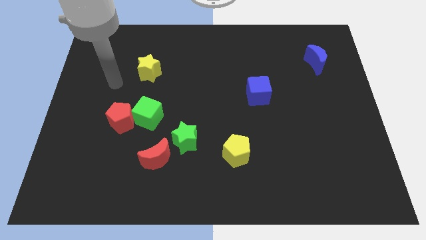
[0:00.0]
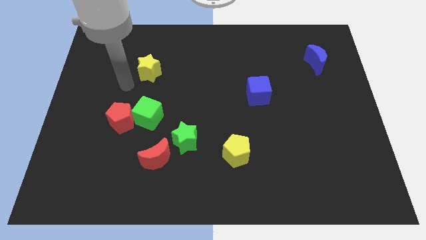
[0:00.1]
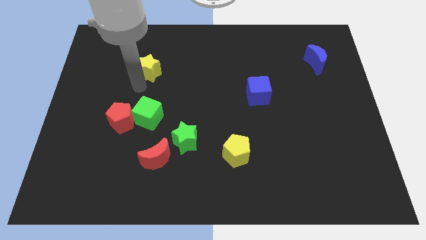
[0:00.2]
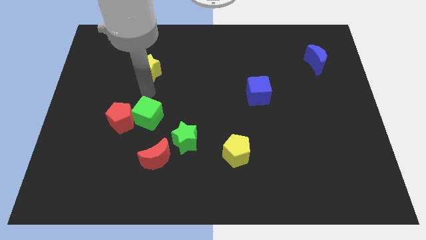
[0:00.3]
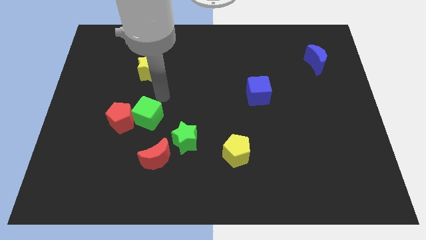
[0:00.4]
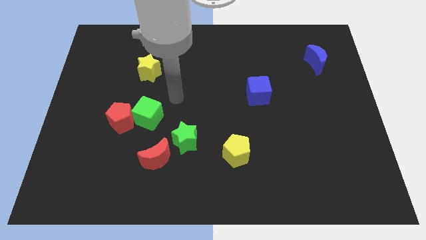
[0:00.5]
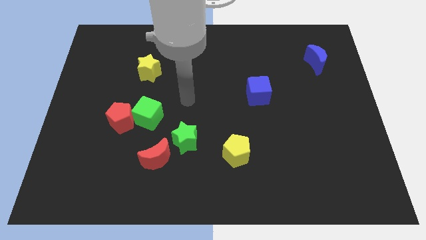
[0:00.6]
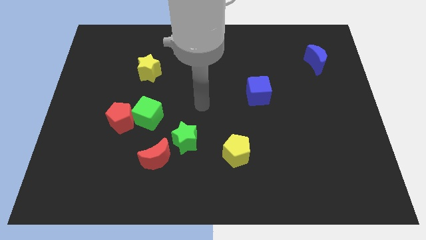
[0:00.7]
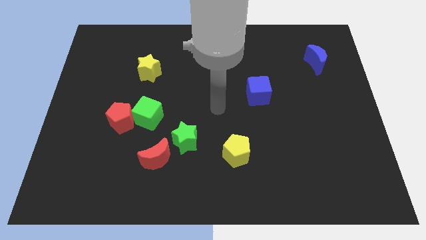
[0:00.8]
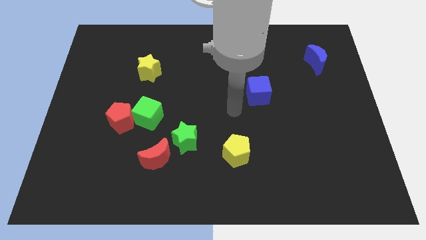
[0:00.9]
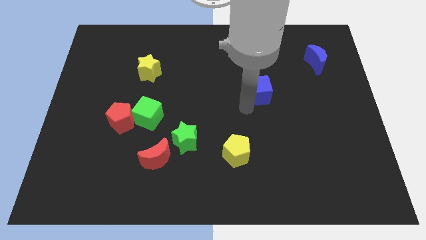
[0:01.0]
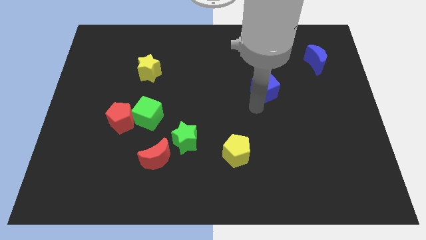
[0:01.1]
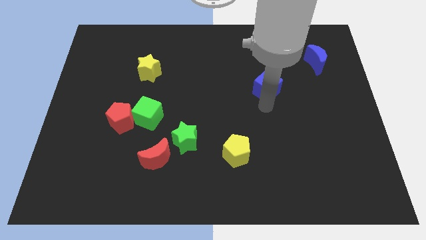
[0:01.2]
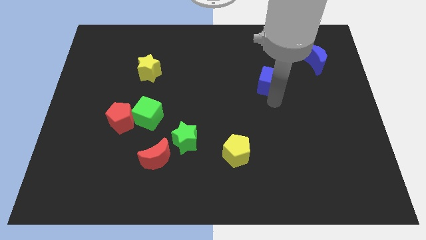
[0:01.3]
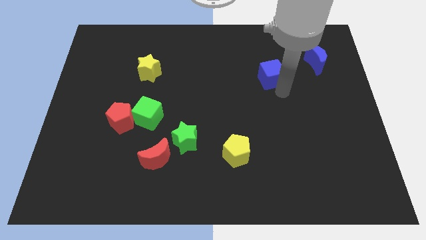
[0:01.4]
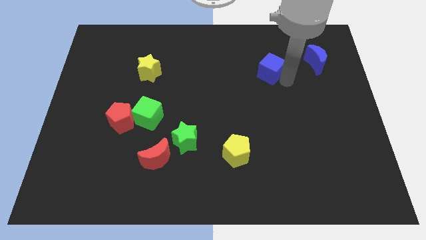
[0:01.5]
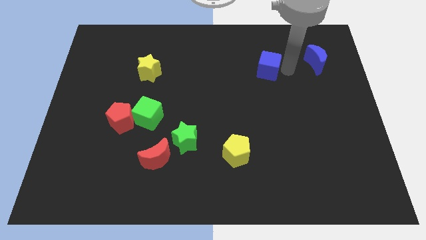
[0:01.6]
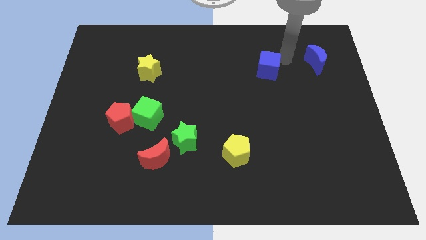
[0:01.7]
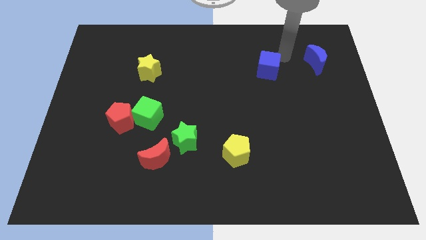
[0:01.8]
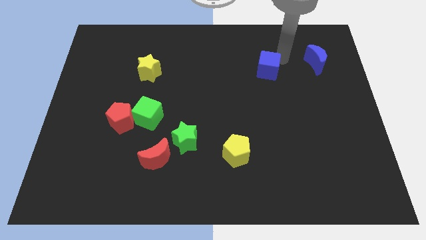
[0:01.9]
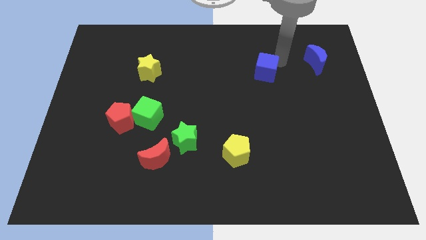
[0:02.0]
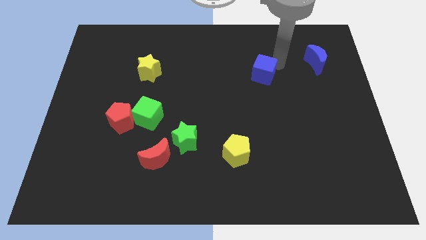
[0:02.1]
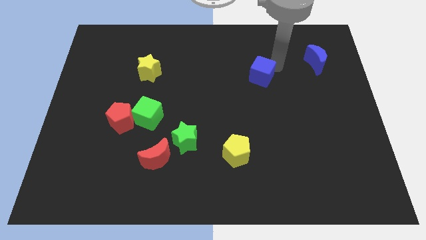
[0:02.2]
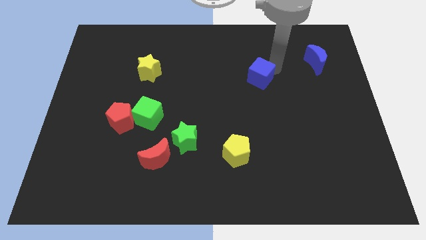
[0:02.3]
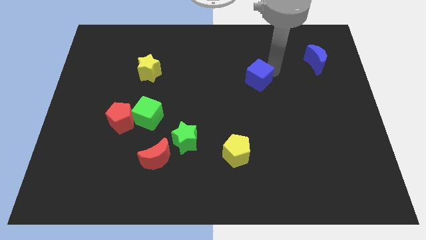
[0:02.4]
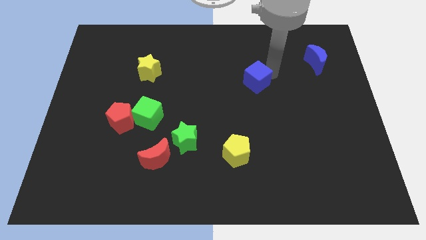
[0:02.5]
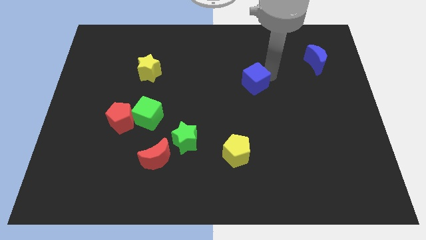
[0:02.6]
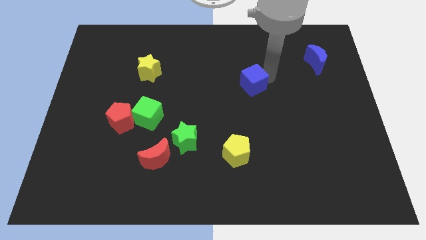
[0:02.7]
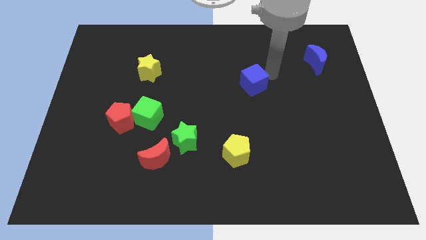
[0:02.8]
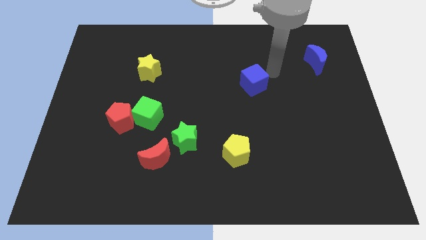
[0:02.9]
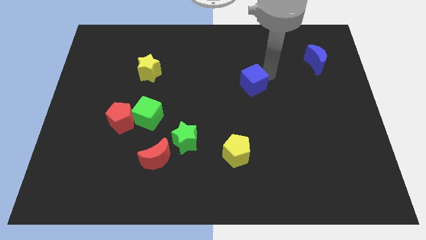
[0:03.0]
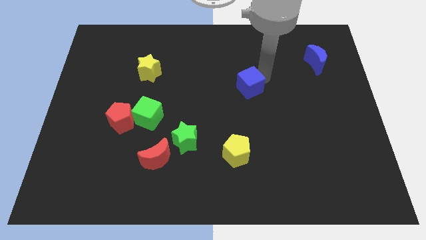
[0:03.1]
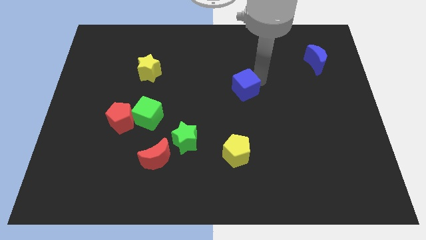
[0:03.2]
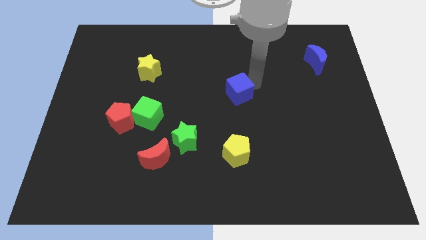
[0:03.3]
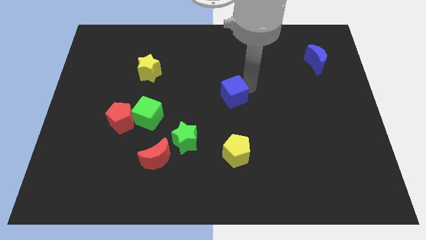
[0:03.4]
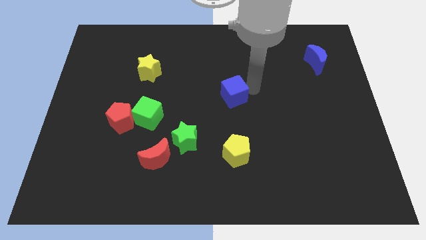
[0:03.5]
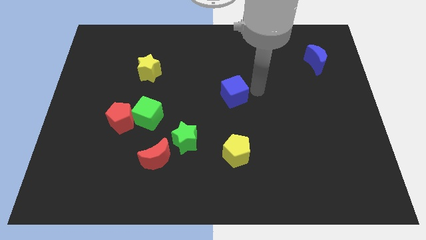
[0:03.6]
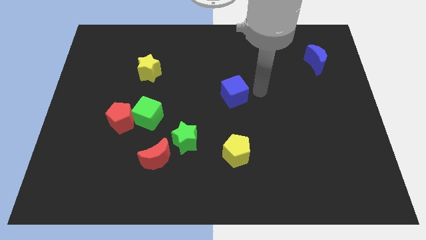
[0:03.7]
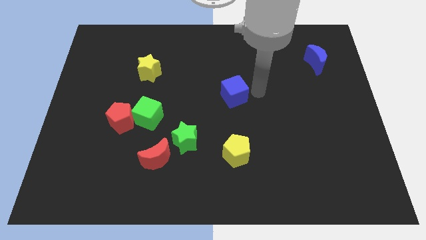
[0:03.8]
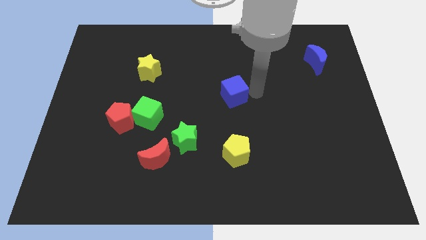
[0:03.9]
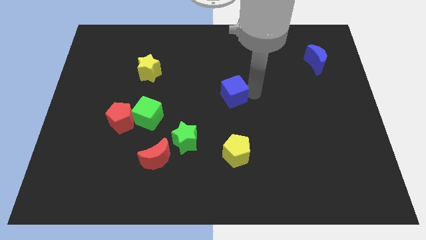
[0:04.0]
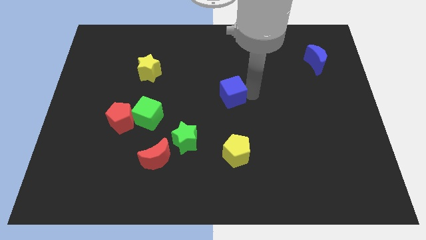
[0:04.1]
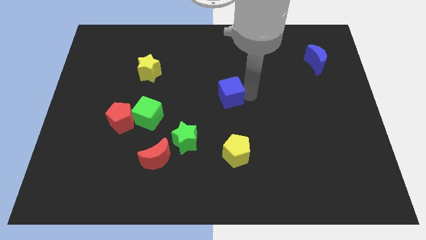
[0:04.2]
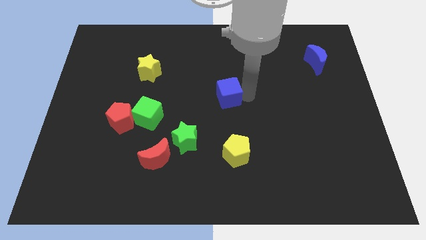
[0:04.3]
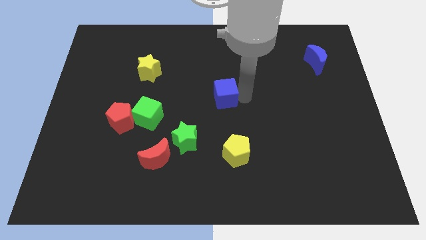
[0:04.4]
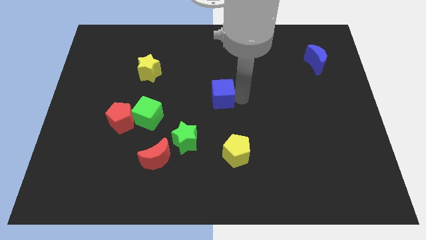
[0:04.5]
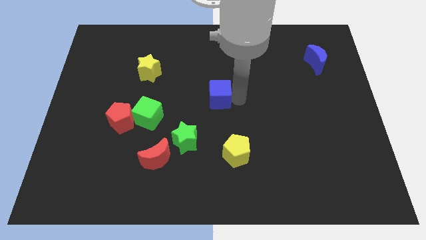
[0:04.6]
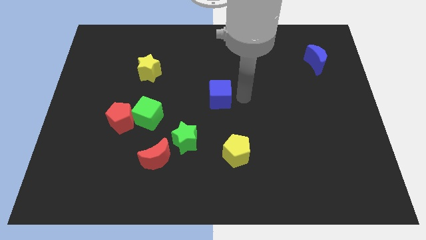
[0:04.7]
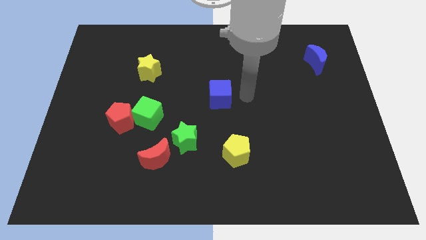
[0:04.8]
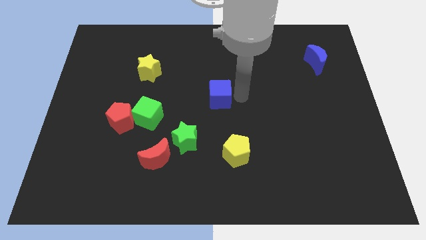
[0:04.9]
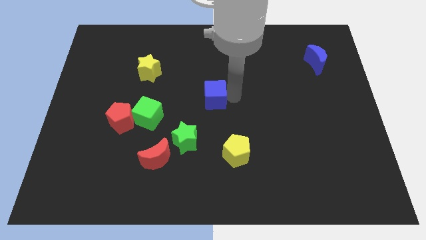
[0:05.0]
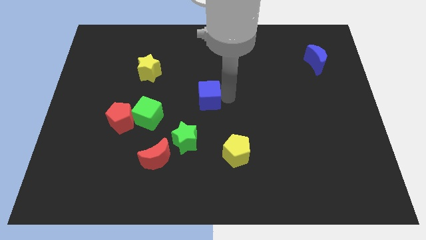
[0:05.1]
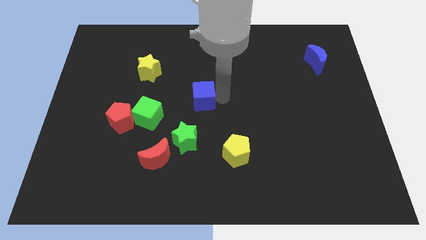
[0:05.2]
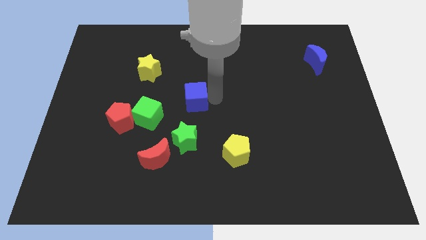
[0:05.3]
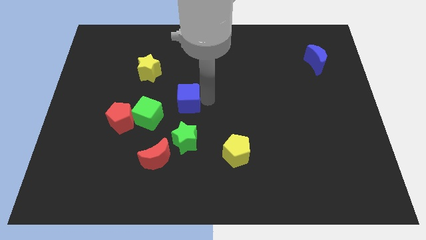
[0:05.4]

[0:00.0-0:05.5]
put the blue cube to the top right of the green cube

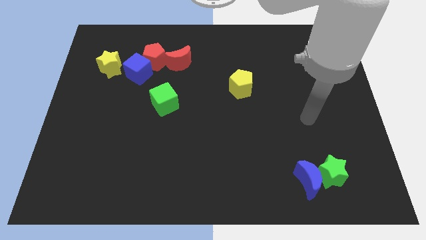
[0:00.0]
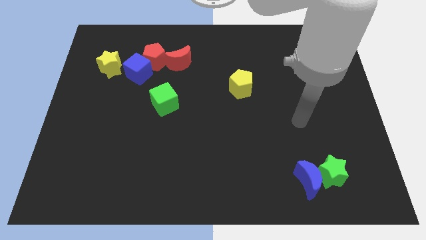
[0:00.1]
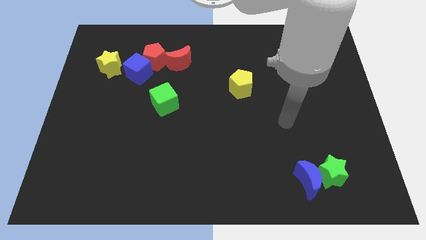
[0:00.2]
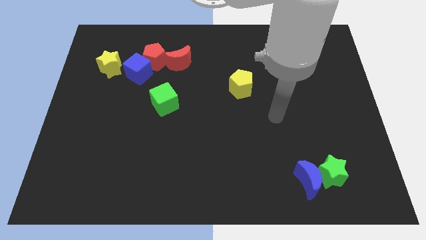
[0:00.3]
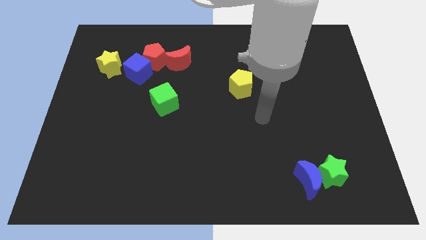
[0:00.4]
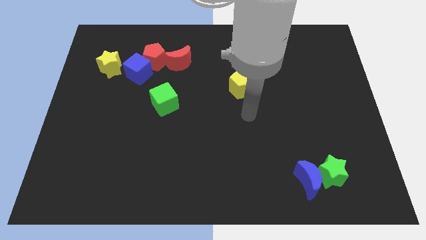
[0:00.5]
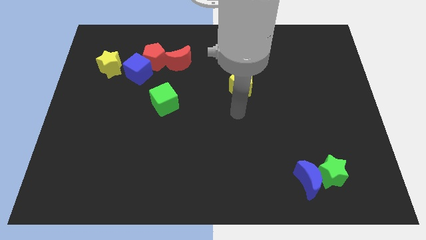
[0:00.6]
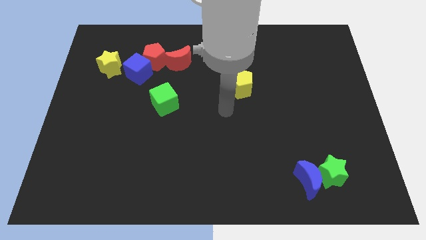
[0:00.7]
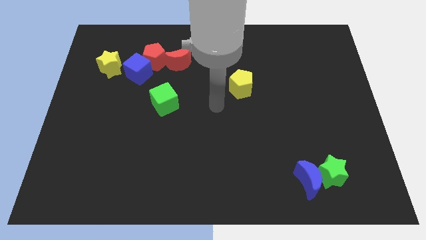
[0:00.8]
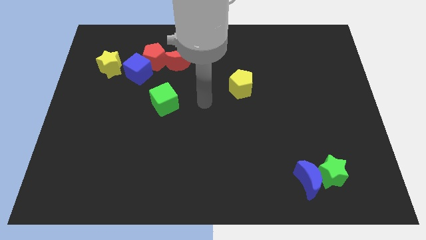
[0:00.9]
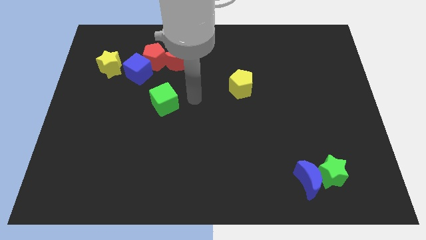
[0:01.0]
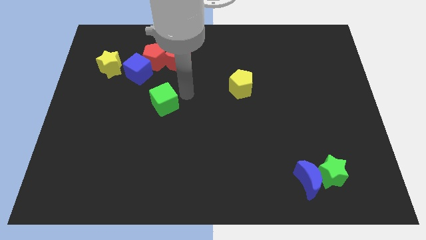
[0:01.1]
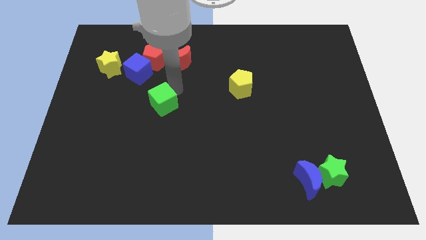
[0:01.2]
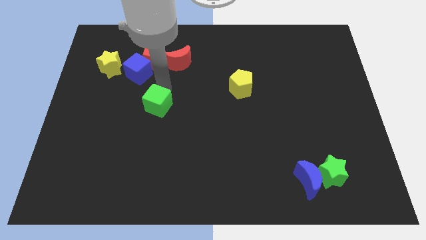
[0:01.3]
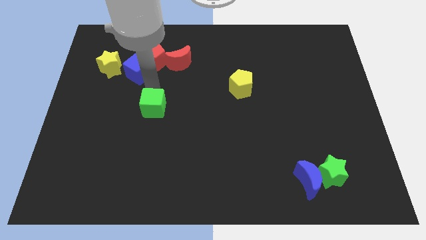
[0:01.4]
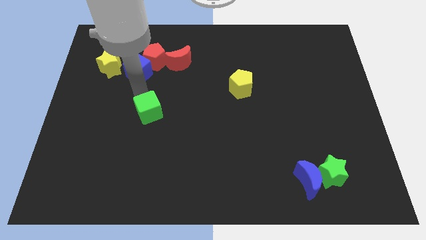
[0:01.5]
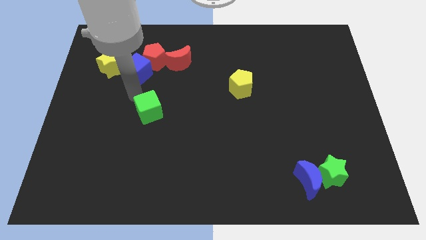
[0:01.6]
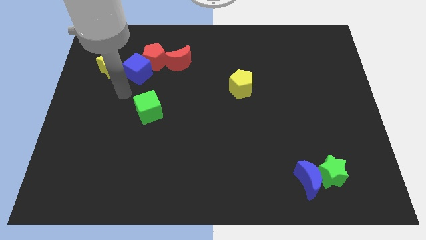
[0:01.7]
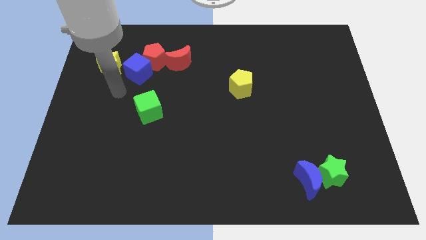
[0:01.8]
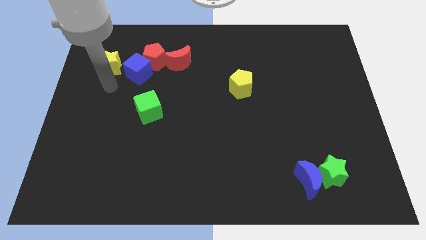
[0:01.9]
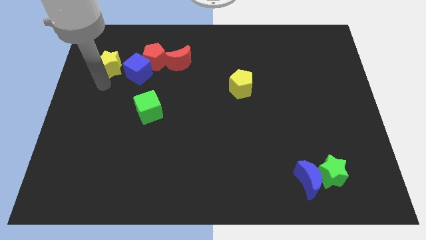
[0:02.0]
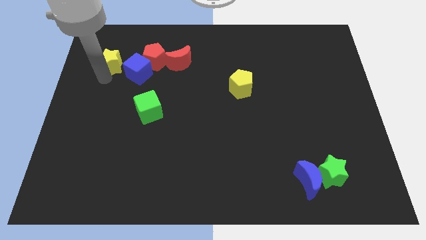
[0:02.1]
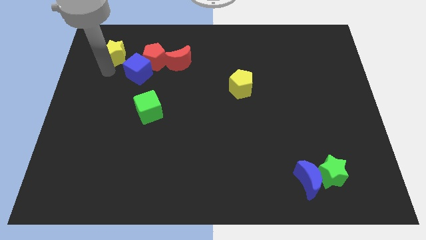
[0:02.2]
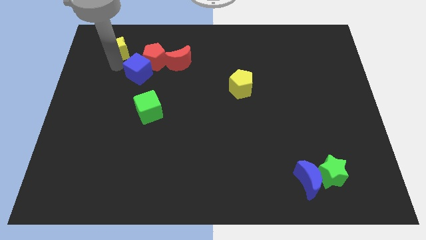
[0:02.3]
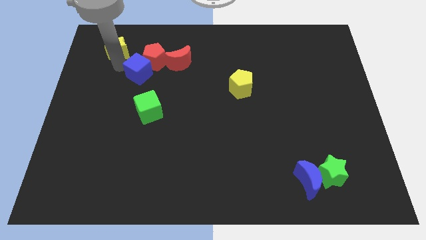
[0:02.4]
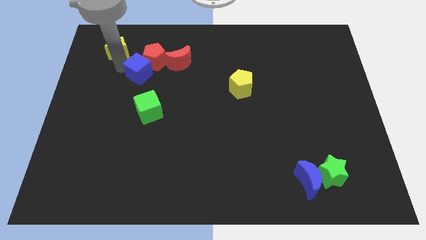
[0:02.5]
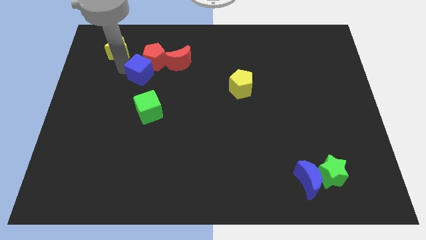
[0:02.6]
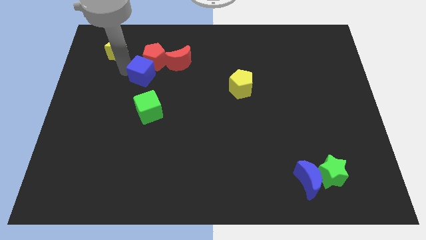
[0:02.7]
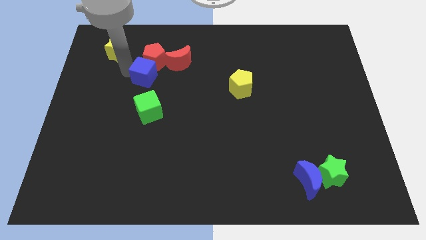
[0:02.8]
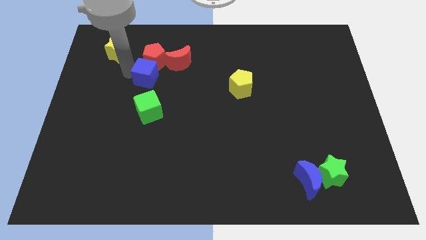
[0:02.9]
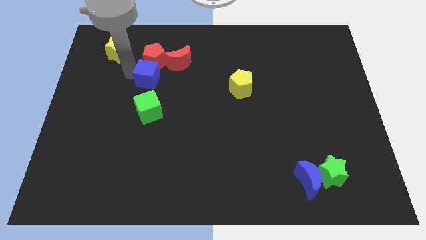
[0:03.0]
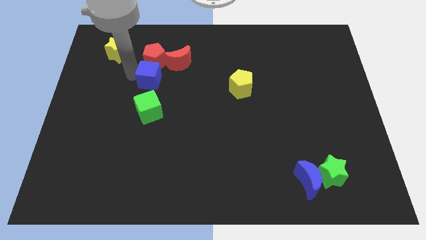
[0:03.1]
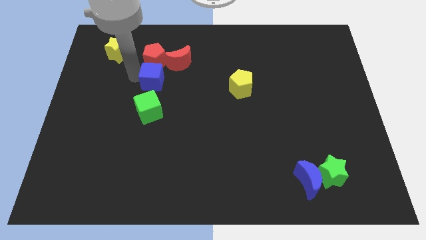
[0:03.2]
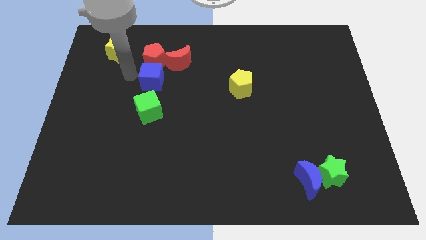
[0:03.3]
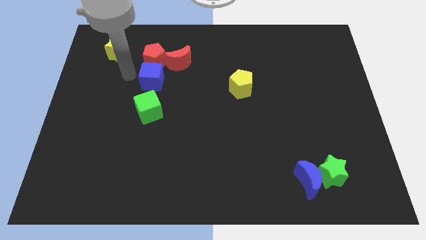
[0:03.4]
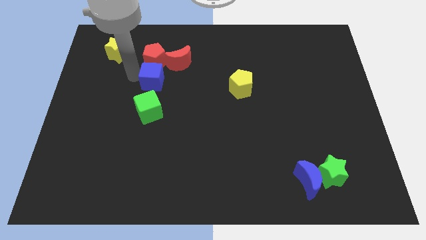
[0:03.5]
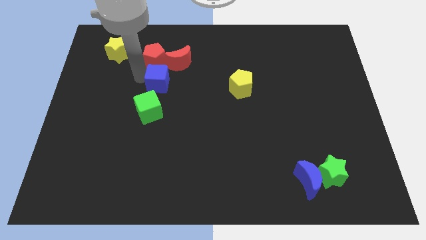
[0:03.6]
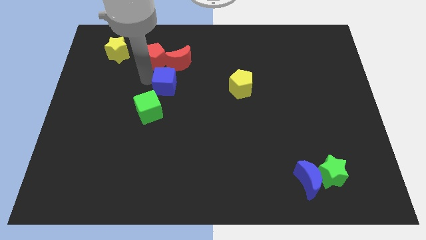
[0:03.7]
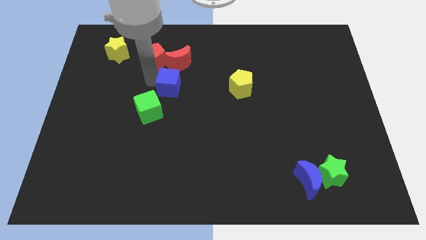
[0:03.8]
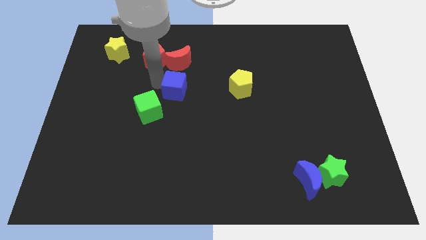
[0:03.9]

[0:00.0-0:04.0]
move the blue cube to the left of the yellow pentagon
